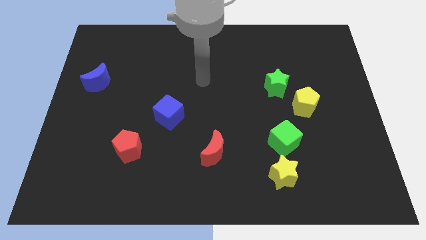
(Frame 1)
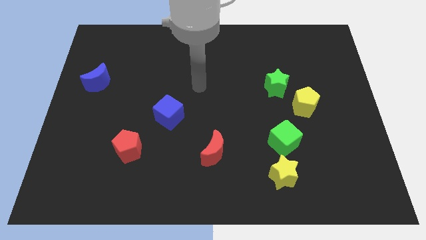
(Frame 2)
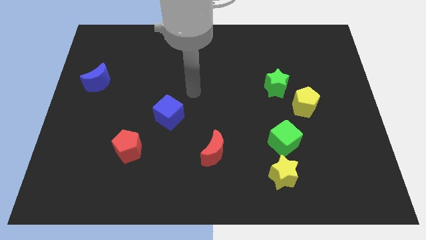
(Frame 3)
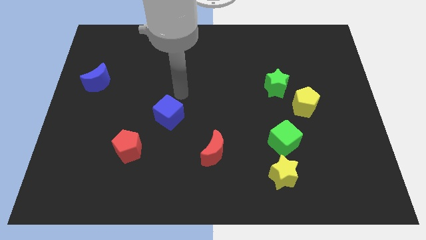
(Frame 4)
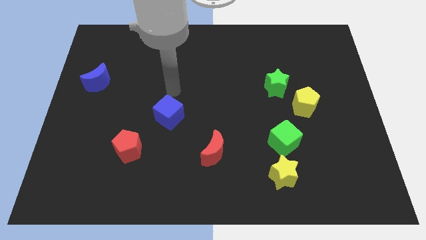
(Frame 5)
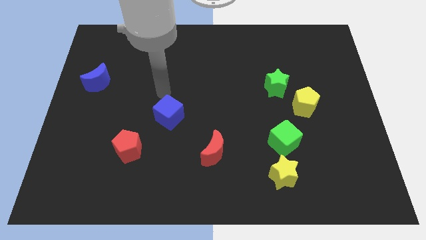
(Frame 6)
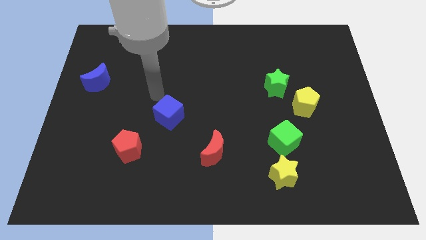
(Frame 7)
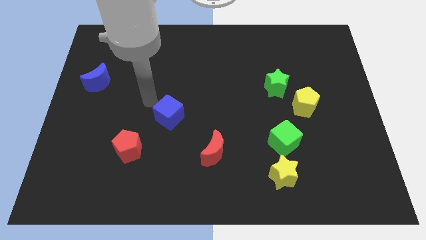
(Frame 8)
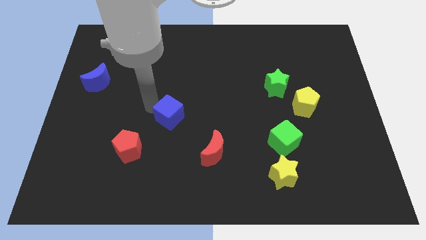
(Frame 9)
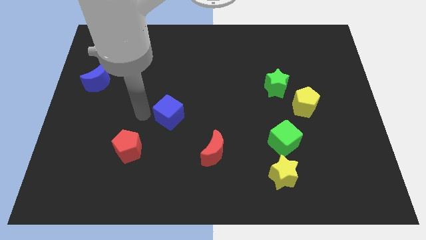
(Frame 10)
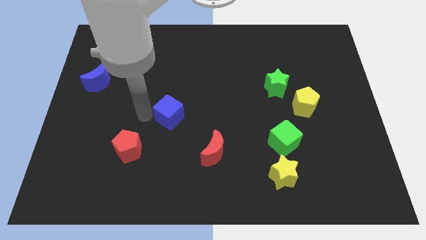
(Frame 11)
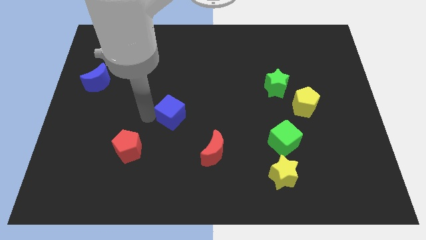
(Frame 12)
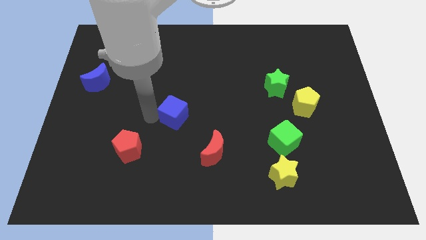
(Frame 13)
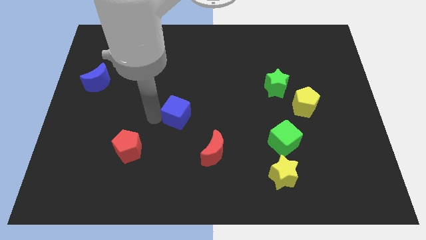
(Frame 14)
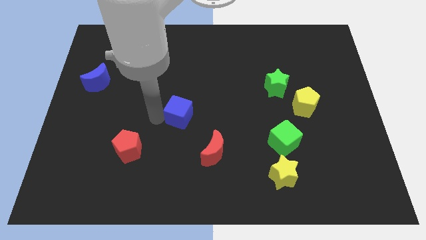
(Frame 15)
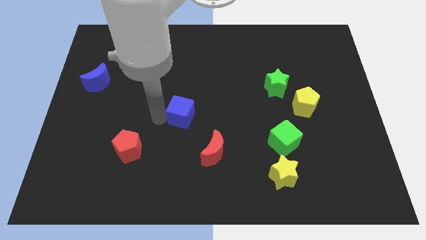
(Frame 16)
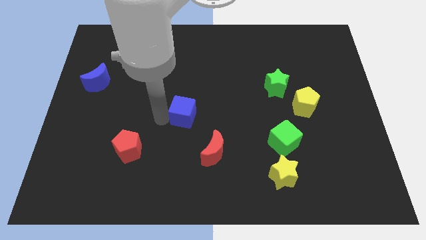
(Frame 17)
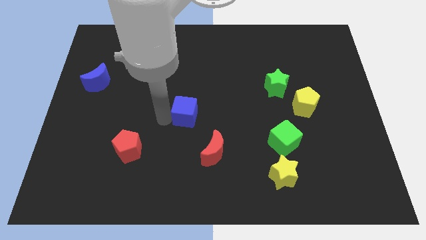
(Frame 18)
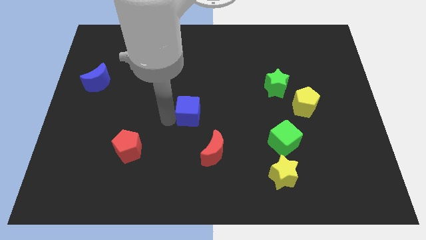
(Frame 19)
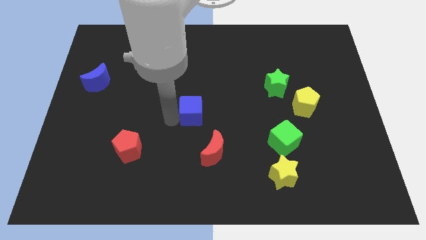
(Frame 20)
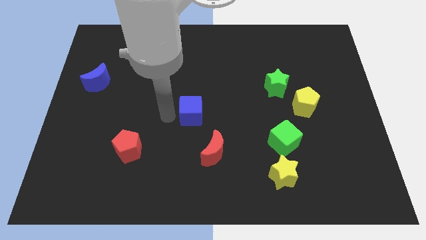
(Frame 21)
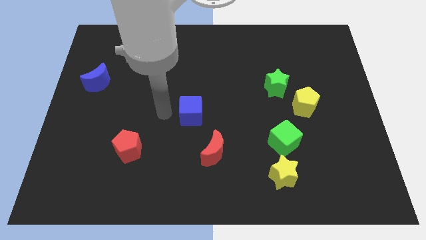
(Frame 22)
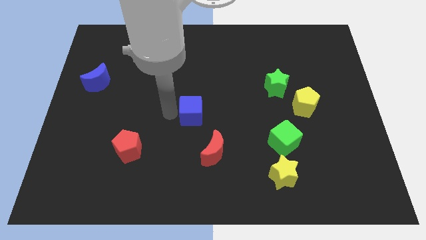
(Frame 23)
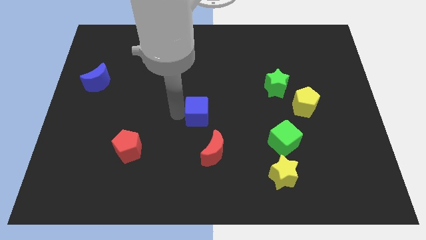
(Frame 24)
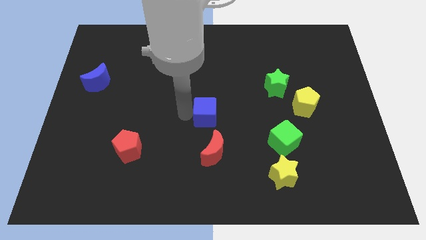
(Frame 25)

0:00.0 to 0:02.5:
move the blue cube a little bit right

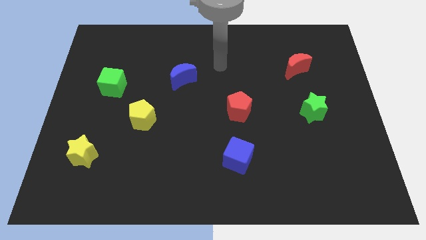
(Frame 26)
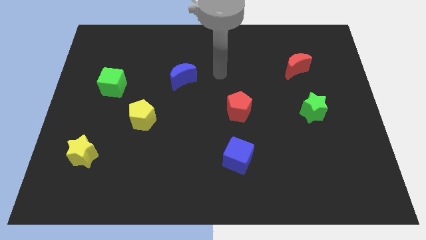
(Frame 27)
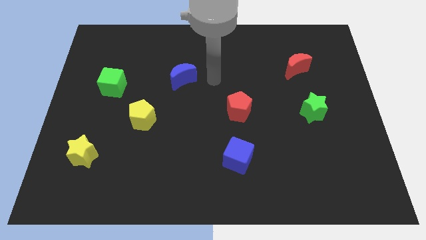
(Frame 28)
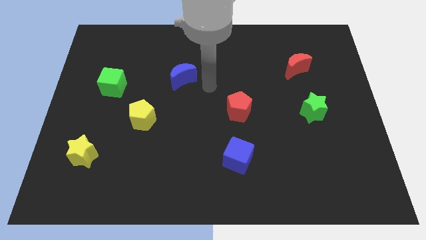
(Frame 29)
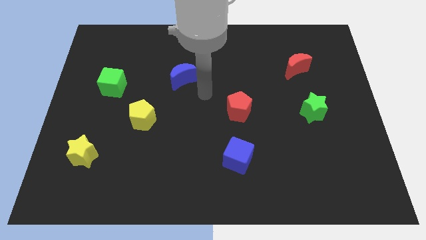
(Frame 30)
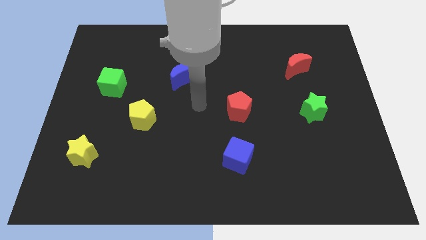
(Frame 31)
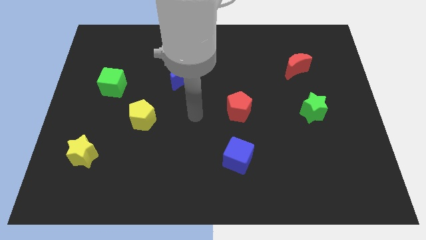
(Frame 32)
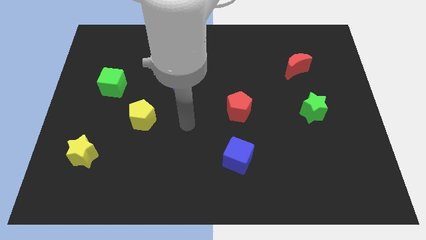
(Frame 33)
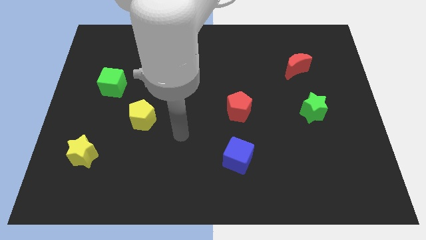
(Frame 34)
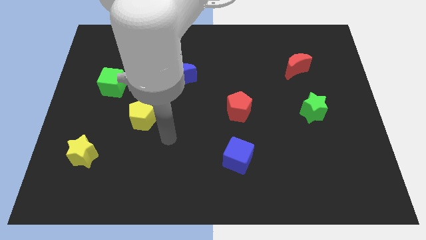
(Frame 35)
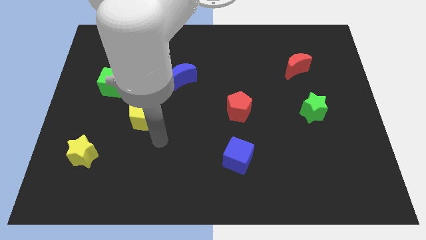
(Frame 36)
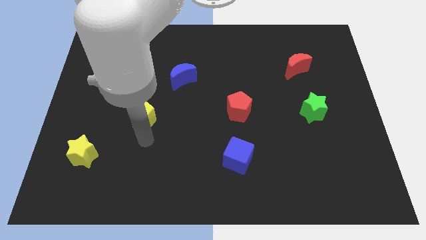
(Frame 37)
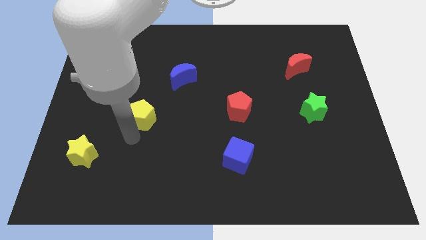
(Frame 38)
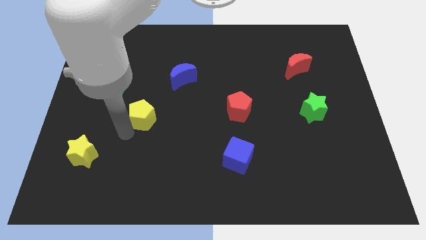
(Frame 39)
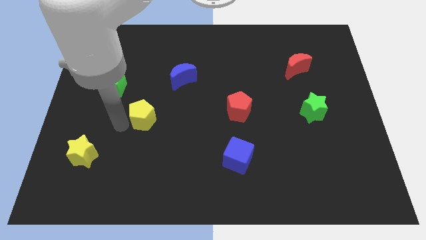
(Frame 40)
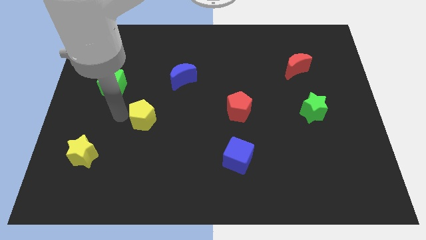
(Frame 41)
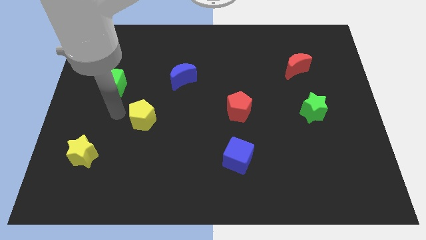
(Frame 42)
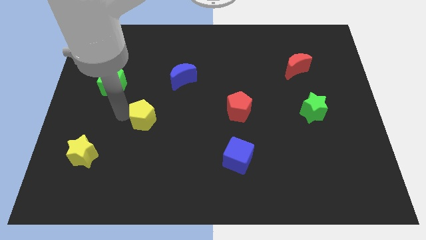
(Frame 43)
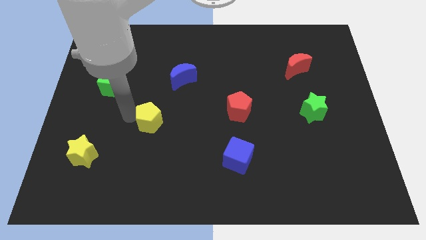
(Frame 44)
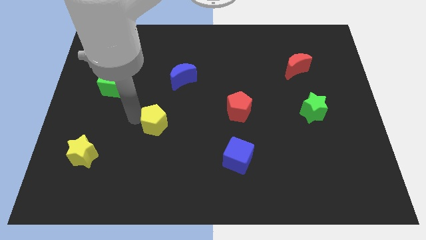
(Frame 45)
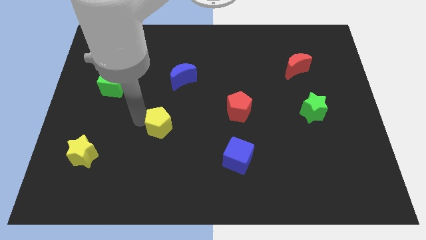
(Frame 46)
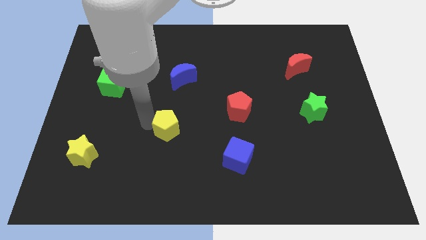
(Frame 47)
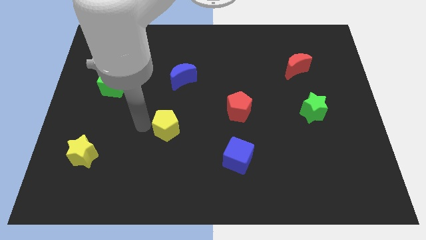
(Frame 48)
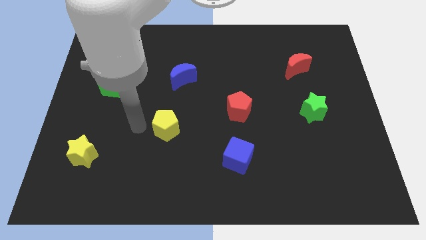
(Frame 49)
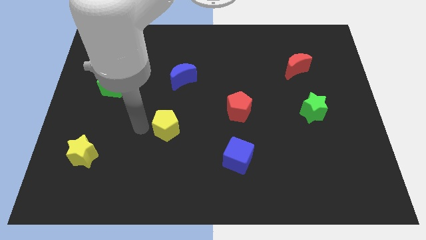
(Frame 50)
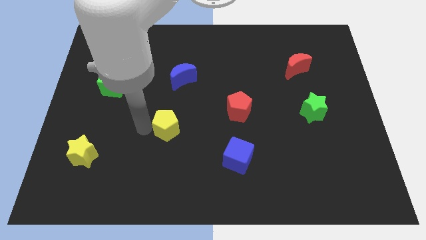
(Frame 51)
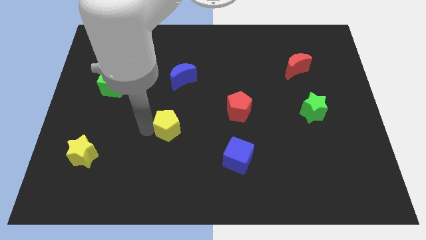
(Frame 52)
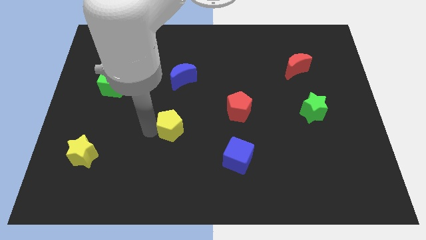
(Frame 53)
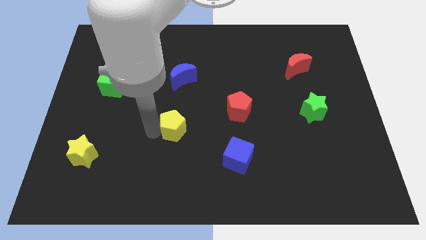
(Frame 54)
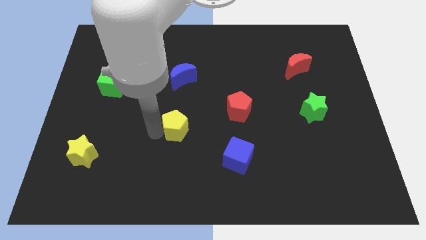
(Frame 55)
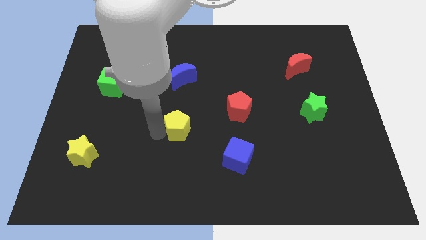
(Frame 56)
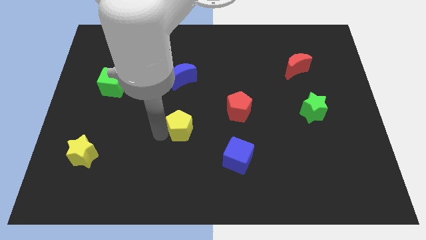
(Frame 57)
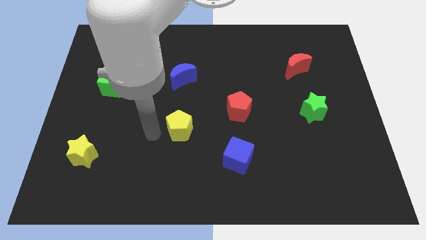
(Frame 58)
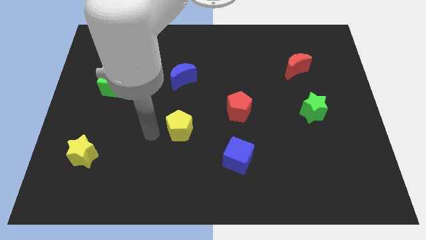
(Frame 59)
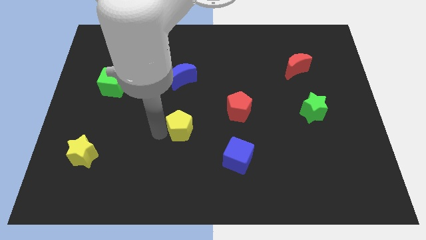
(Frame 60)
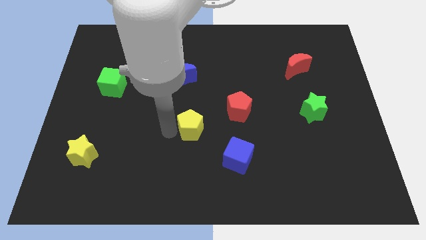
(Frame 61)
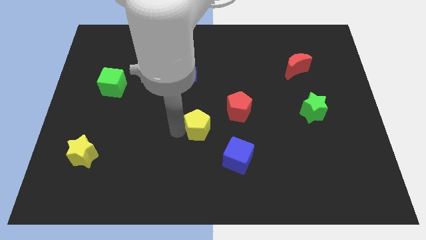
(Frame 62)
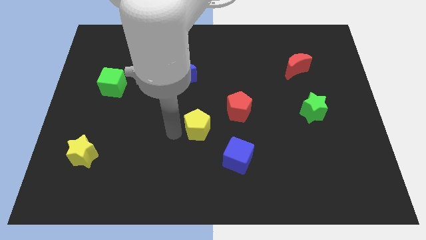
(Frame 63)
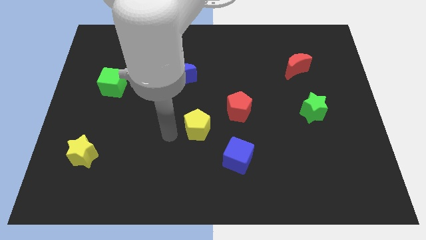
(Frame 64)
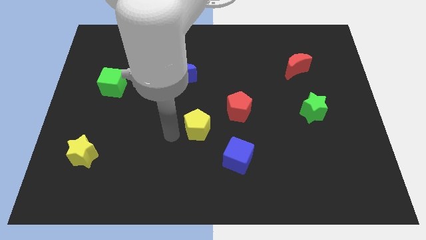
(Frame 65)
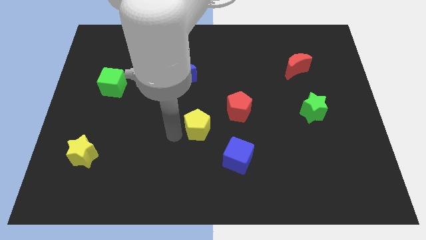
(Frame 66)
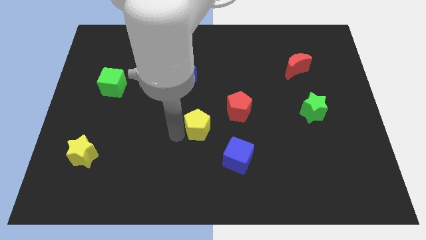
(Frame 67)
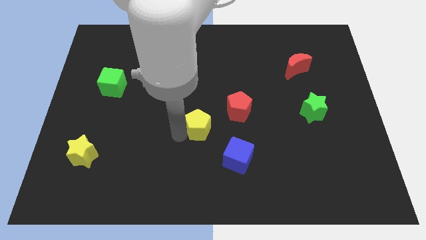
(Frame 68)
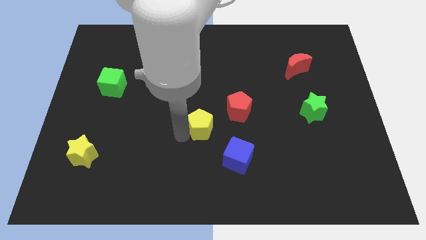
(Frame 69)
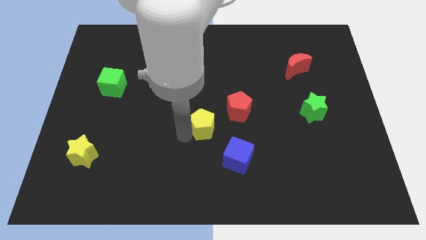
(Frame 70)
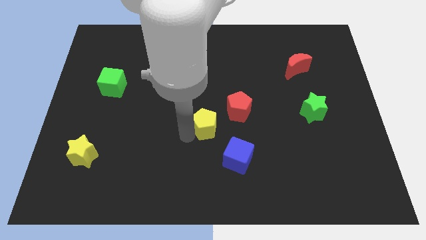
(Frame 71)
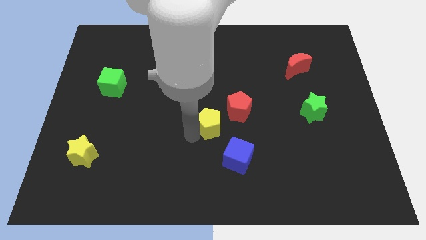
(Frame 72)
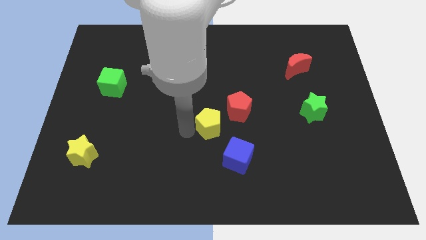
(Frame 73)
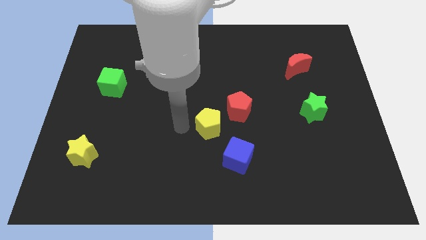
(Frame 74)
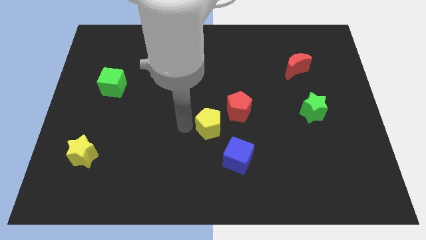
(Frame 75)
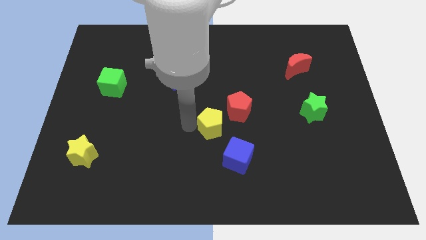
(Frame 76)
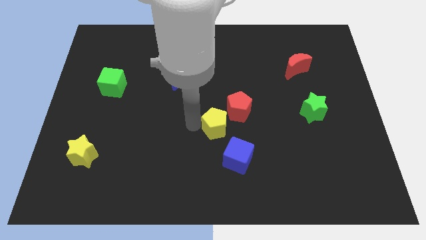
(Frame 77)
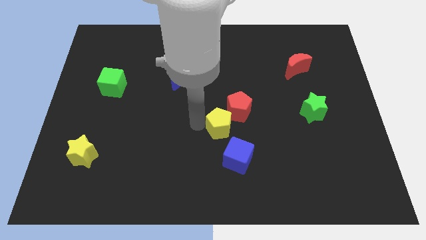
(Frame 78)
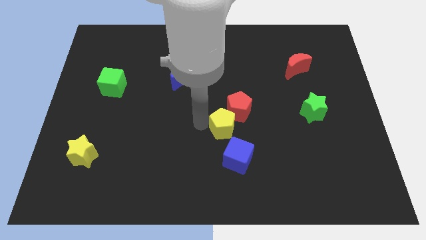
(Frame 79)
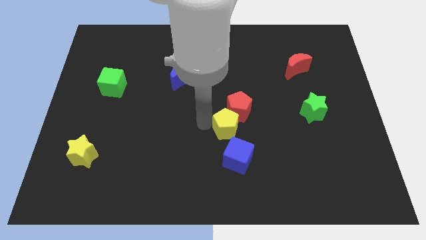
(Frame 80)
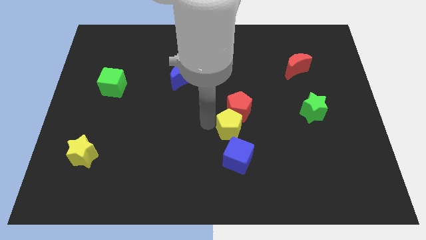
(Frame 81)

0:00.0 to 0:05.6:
slide the yellow pentagon right
